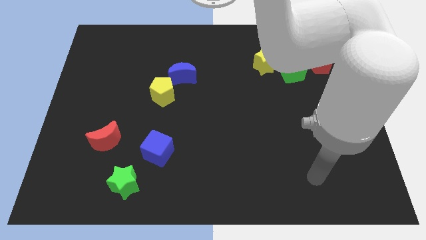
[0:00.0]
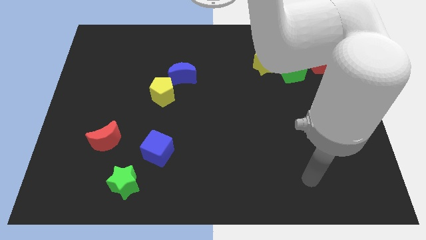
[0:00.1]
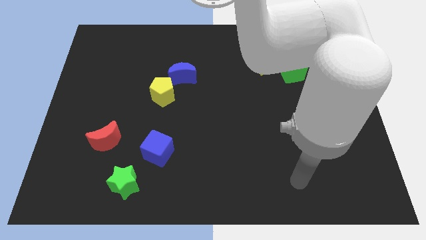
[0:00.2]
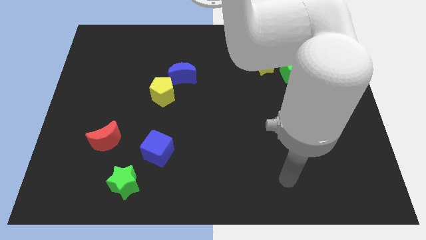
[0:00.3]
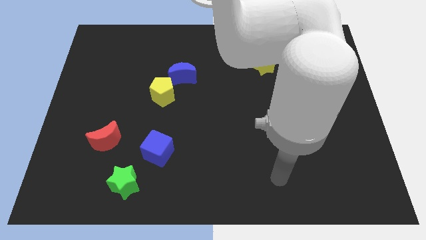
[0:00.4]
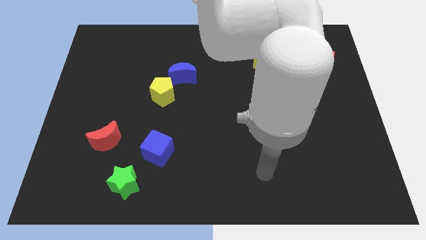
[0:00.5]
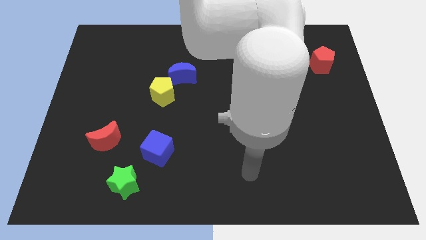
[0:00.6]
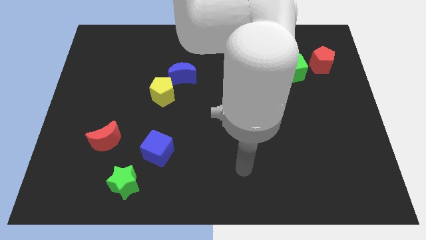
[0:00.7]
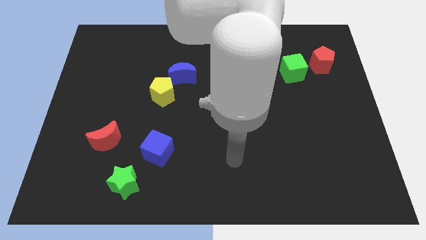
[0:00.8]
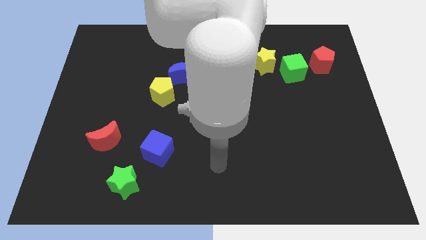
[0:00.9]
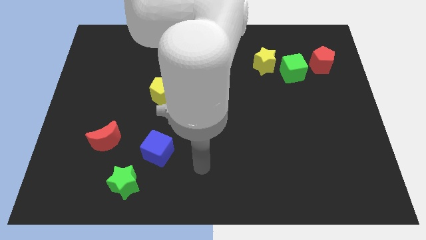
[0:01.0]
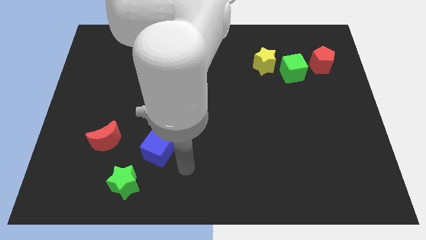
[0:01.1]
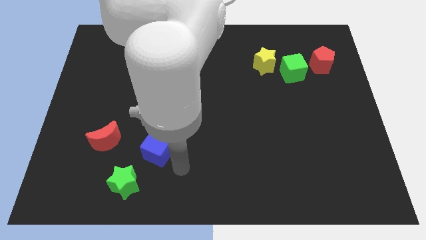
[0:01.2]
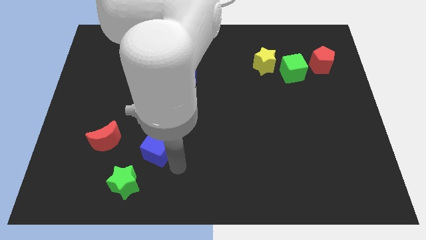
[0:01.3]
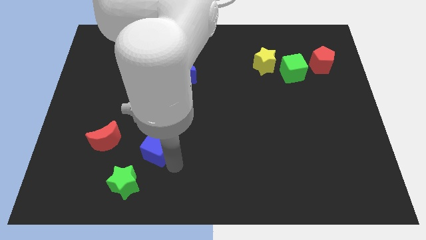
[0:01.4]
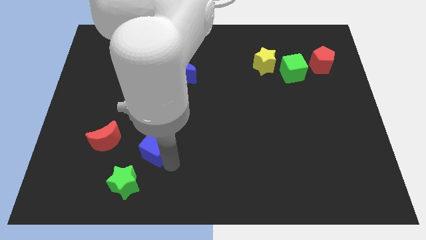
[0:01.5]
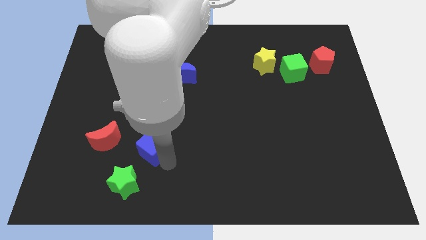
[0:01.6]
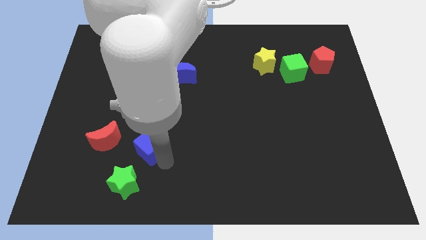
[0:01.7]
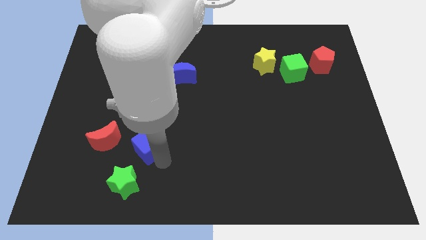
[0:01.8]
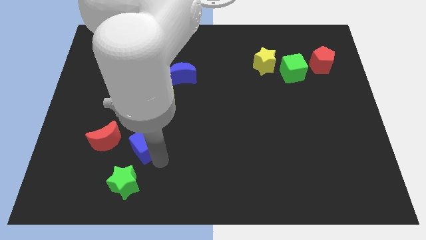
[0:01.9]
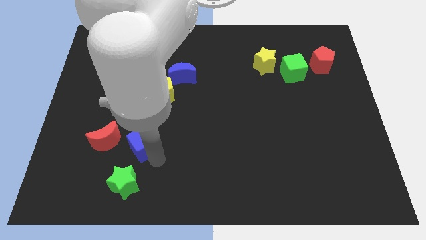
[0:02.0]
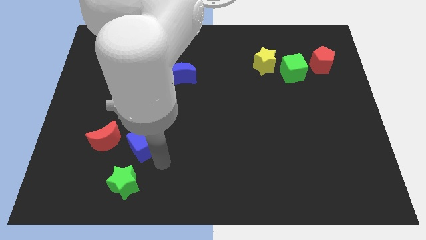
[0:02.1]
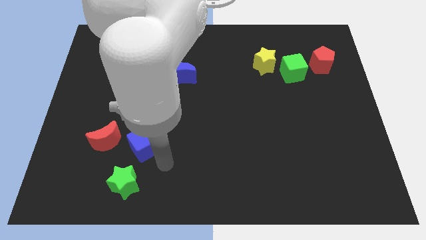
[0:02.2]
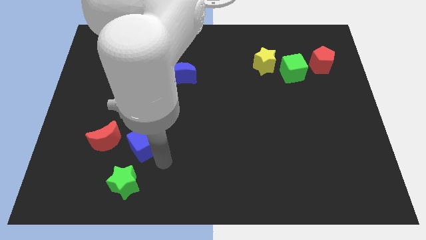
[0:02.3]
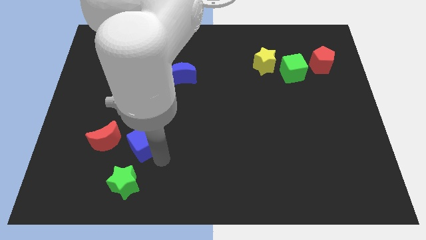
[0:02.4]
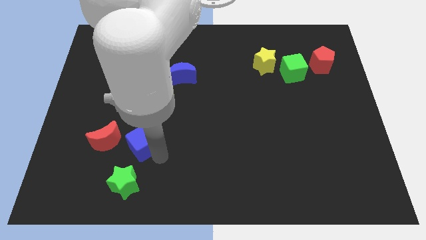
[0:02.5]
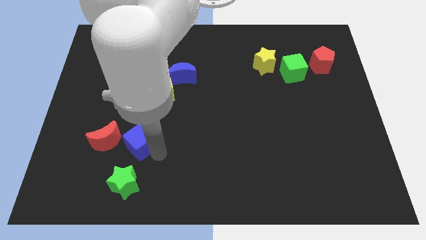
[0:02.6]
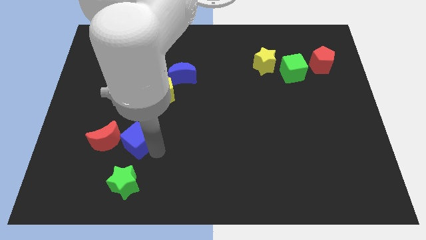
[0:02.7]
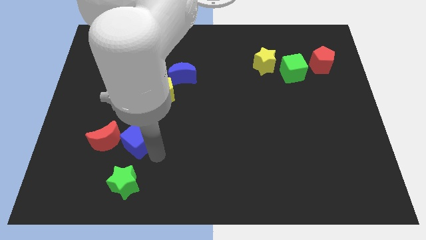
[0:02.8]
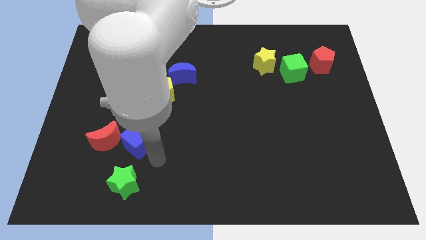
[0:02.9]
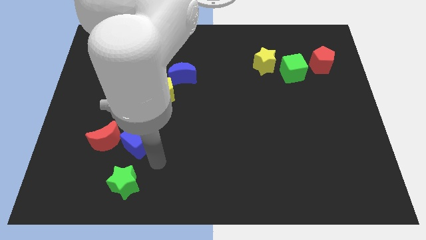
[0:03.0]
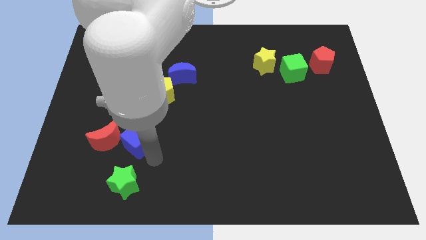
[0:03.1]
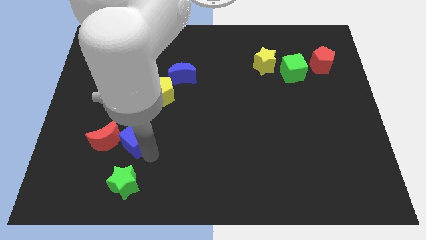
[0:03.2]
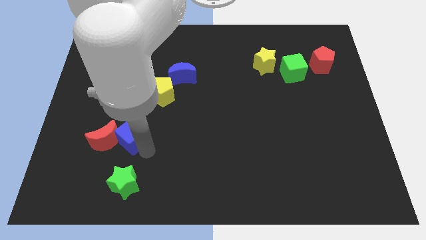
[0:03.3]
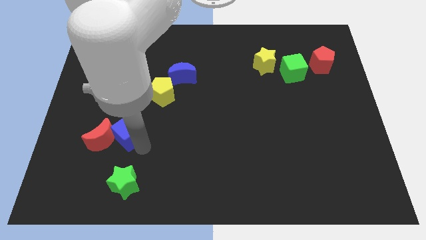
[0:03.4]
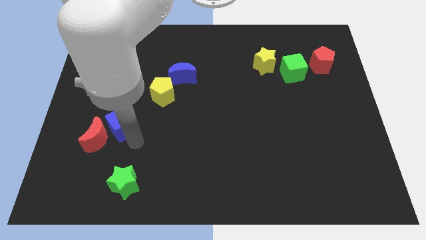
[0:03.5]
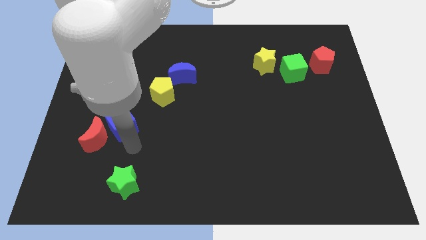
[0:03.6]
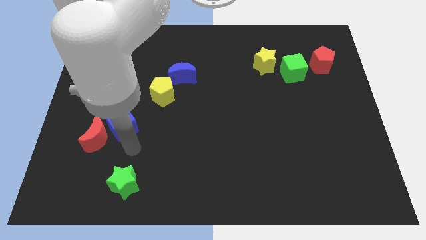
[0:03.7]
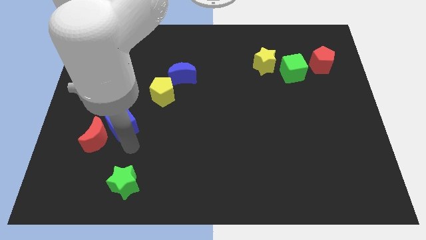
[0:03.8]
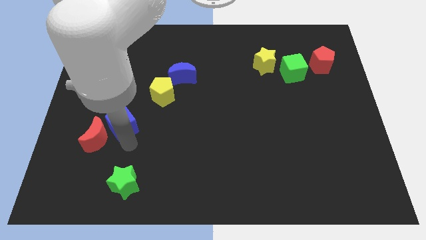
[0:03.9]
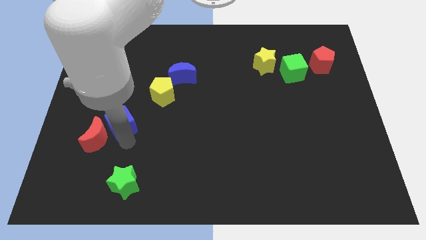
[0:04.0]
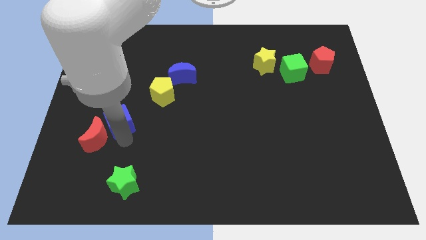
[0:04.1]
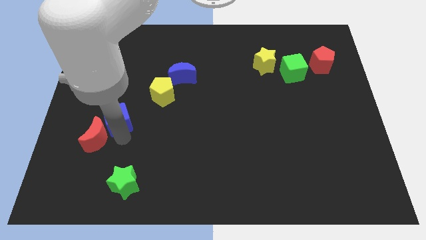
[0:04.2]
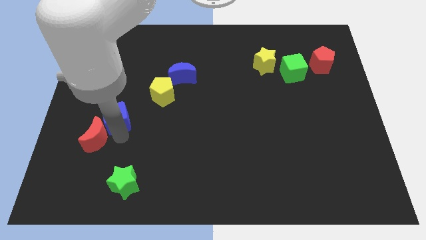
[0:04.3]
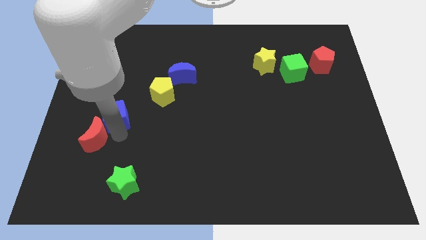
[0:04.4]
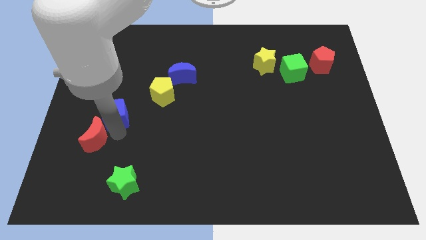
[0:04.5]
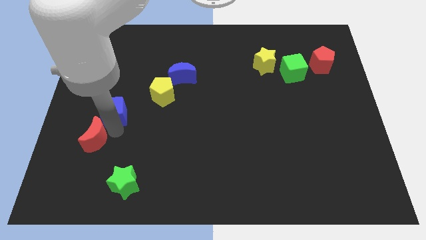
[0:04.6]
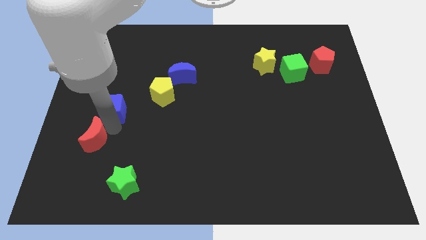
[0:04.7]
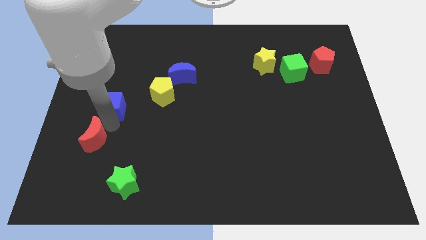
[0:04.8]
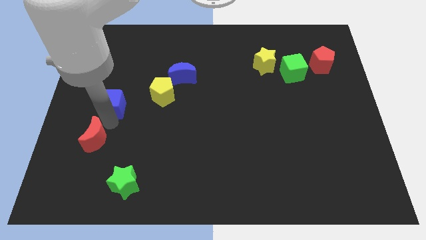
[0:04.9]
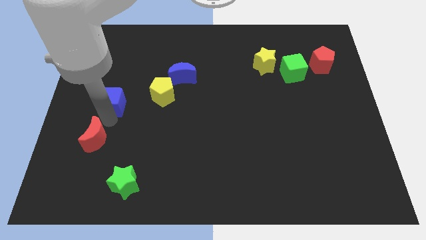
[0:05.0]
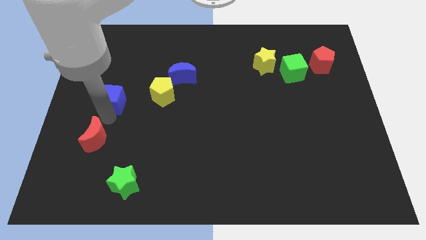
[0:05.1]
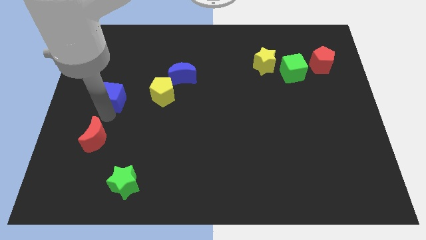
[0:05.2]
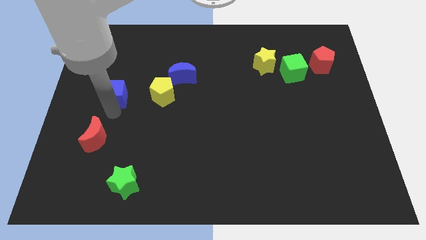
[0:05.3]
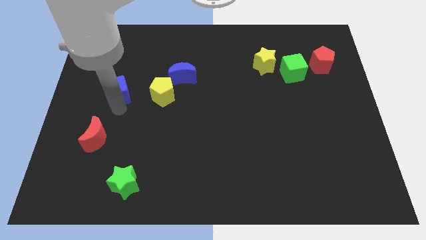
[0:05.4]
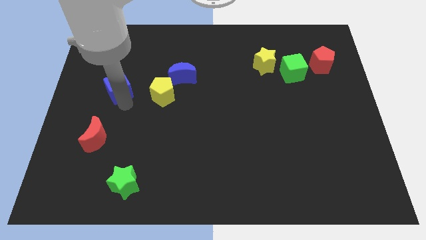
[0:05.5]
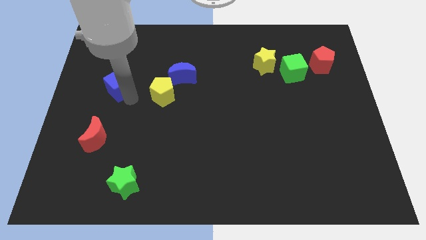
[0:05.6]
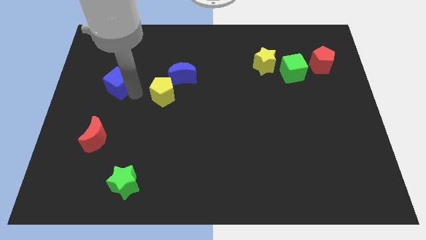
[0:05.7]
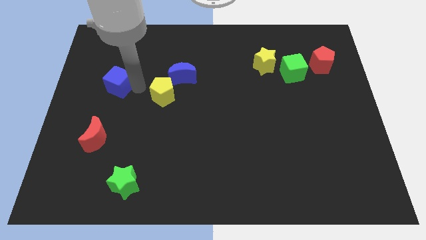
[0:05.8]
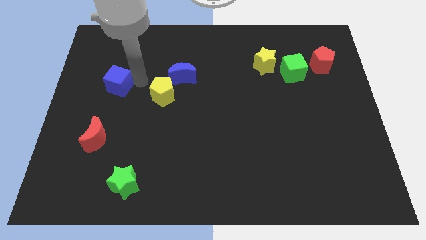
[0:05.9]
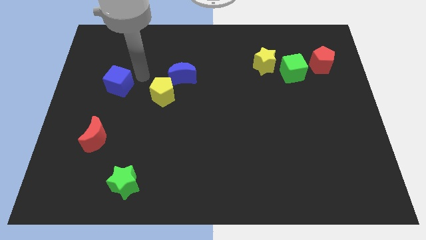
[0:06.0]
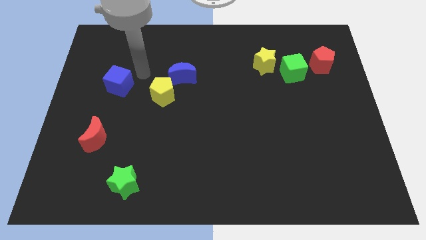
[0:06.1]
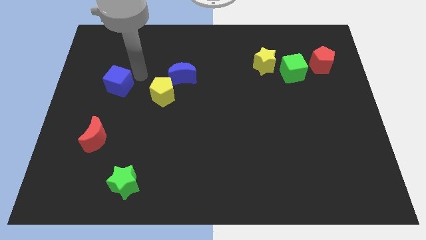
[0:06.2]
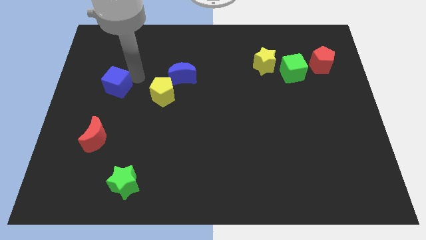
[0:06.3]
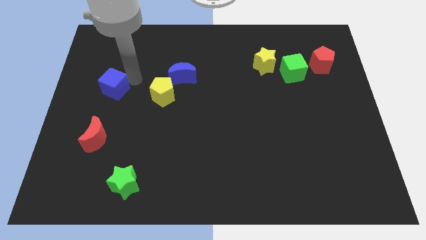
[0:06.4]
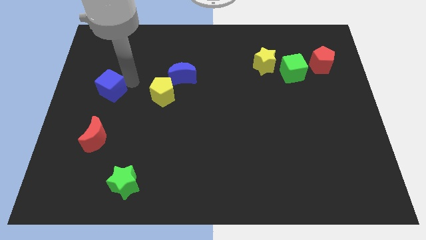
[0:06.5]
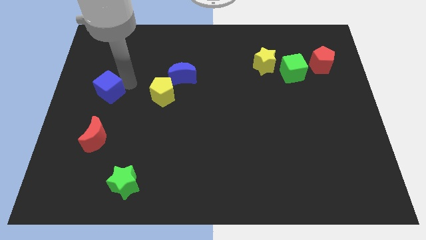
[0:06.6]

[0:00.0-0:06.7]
push the blue cube to the left side
